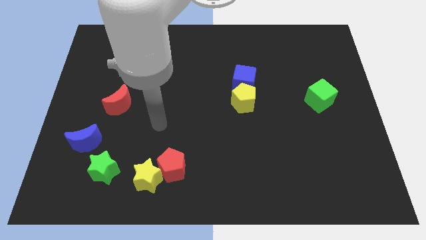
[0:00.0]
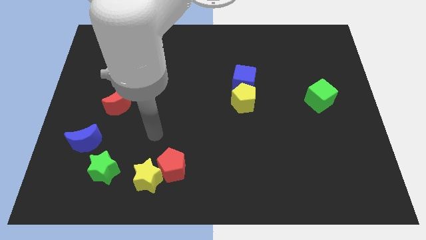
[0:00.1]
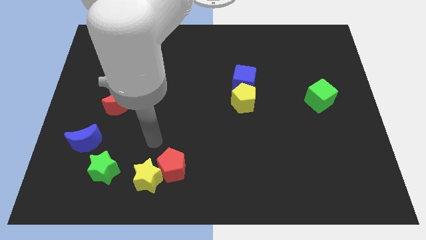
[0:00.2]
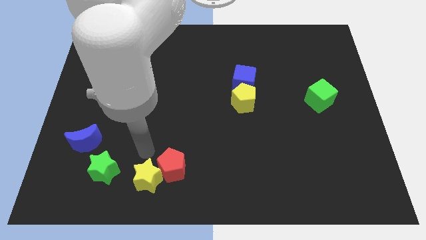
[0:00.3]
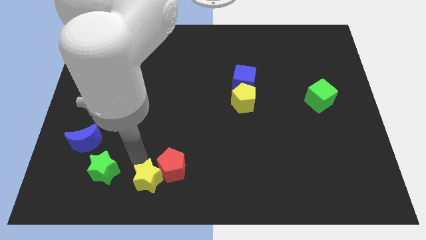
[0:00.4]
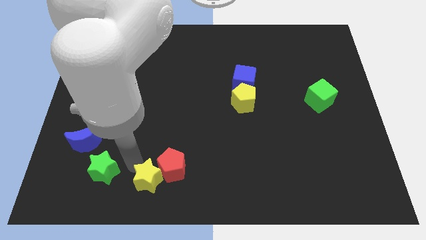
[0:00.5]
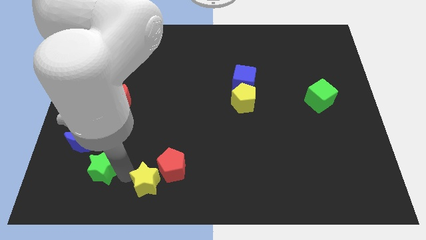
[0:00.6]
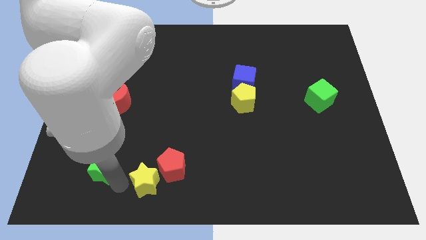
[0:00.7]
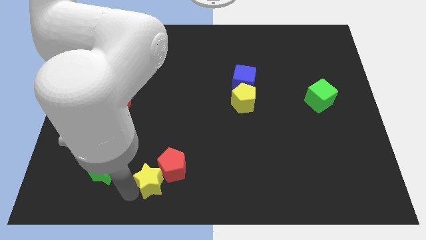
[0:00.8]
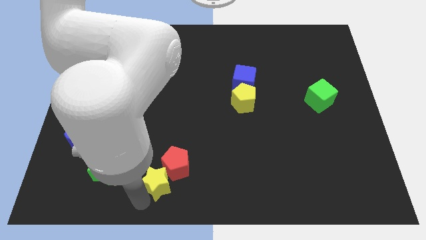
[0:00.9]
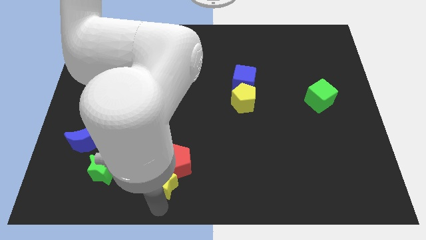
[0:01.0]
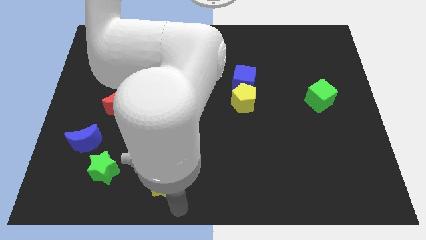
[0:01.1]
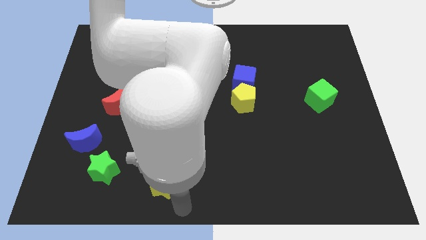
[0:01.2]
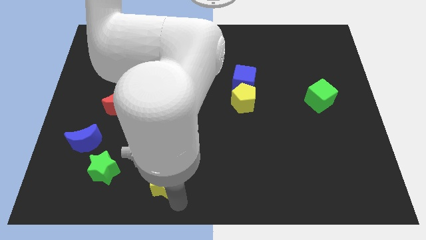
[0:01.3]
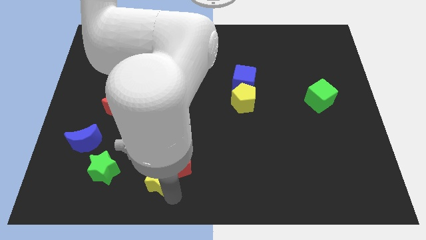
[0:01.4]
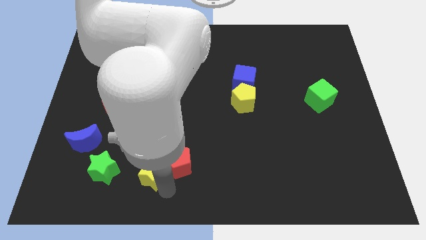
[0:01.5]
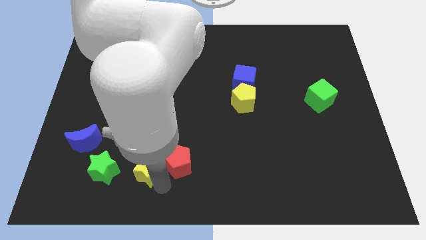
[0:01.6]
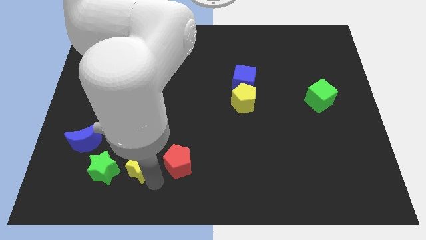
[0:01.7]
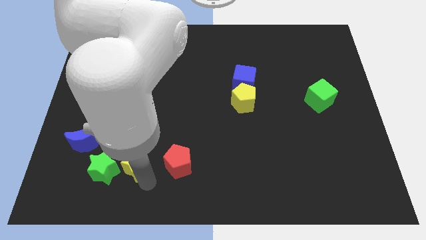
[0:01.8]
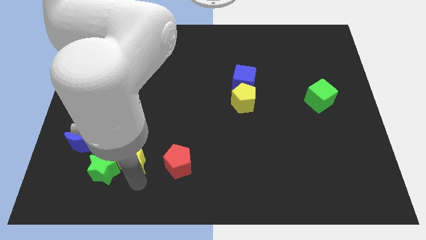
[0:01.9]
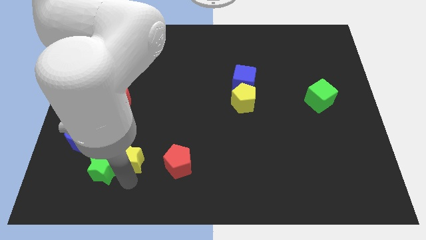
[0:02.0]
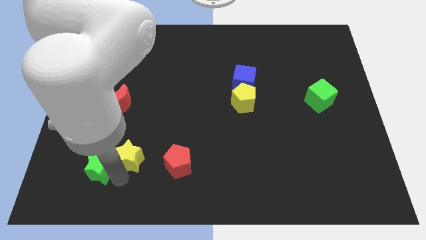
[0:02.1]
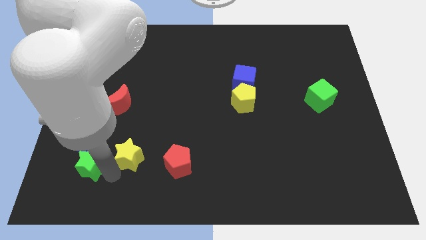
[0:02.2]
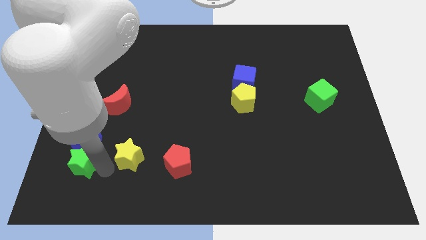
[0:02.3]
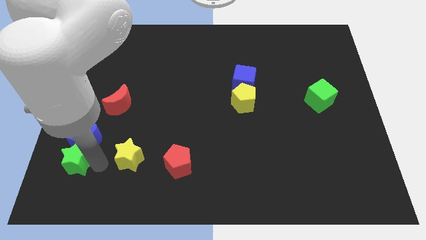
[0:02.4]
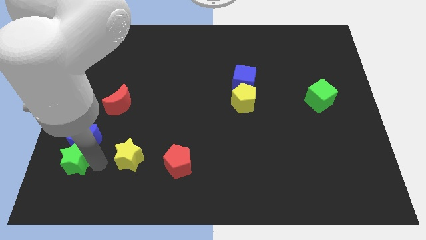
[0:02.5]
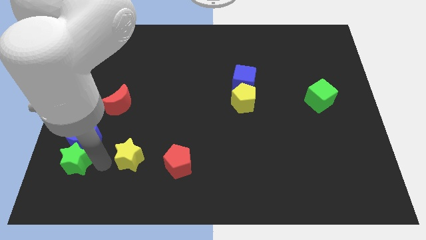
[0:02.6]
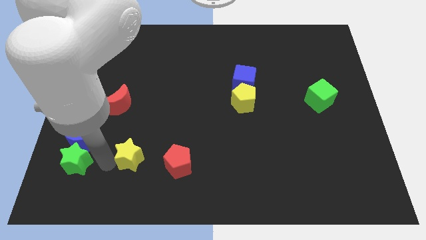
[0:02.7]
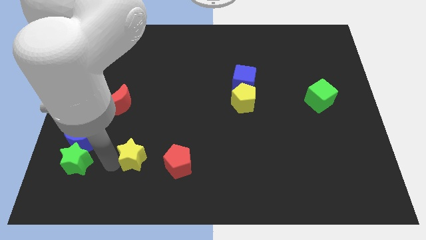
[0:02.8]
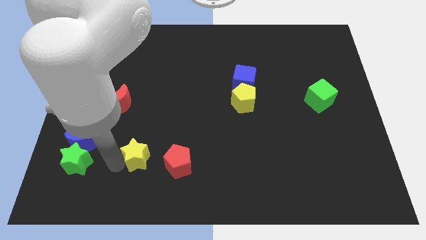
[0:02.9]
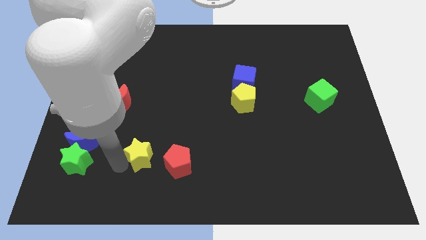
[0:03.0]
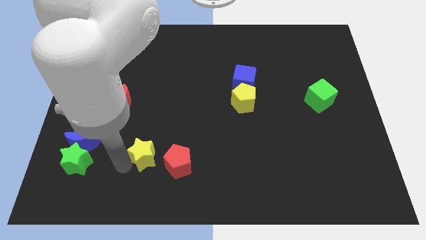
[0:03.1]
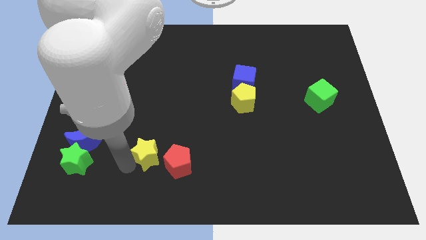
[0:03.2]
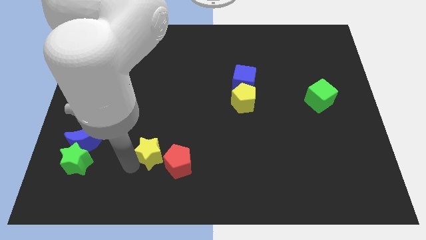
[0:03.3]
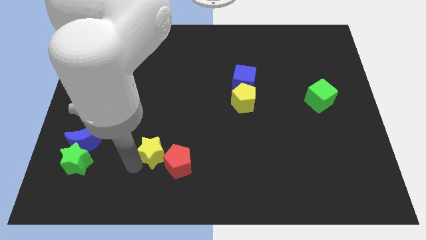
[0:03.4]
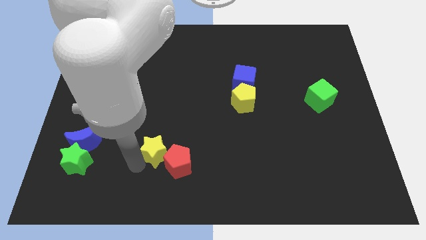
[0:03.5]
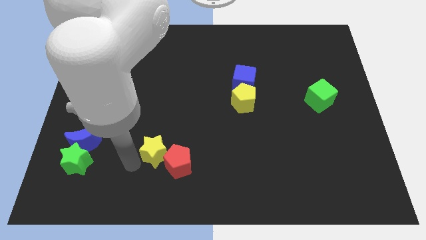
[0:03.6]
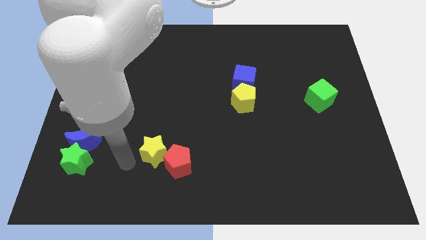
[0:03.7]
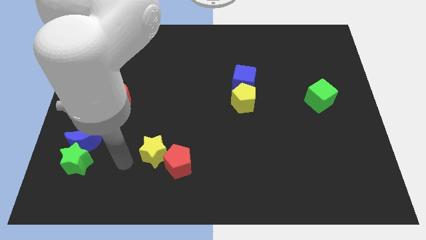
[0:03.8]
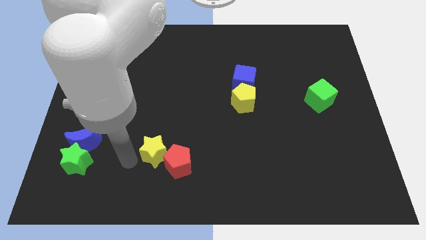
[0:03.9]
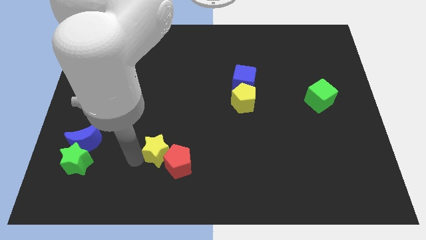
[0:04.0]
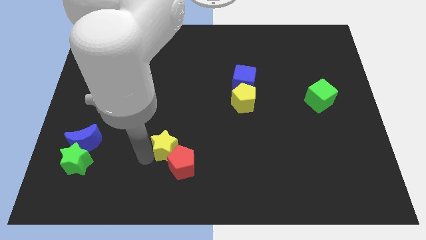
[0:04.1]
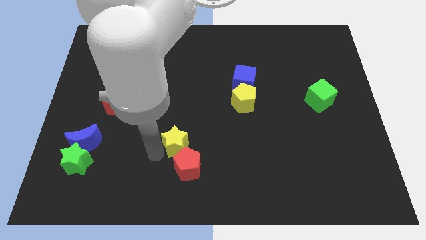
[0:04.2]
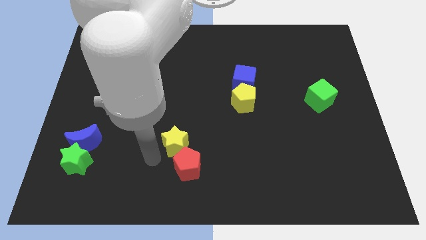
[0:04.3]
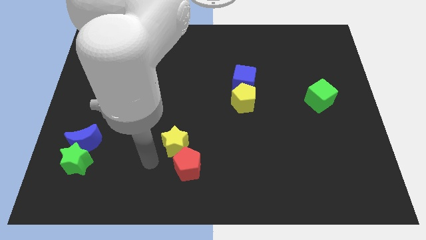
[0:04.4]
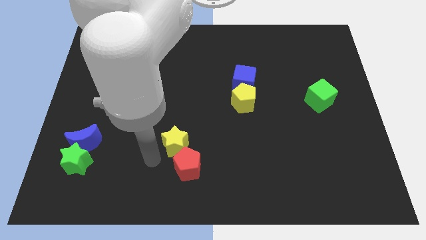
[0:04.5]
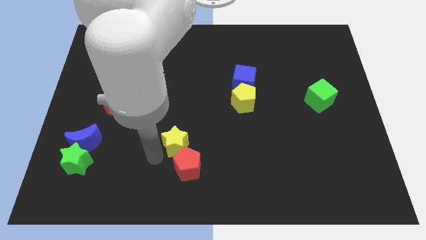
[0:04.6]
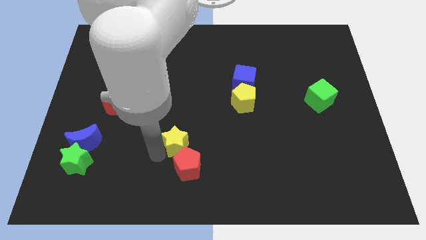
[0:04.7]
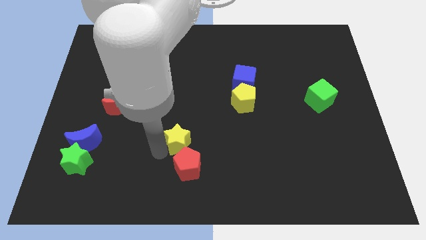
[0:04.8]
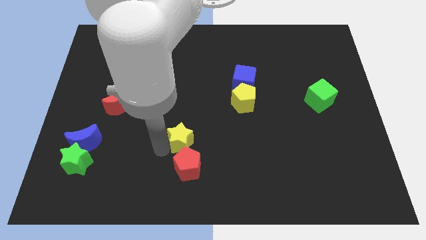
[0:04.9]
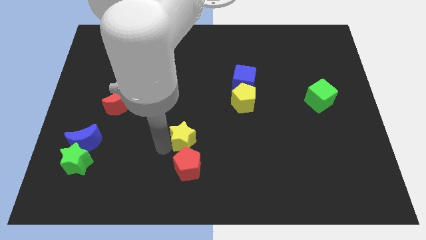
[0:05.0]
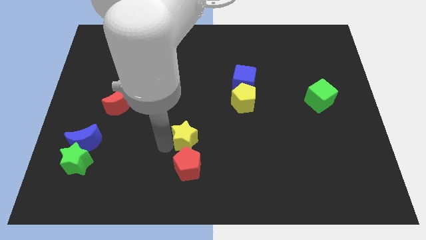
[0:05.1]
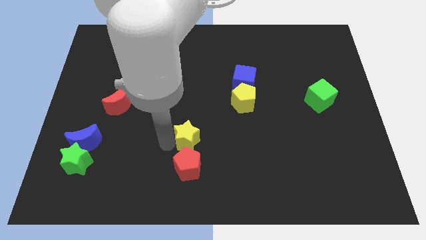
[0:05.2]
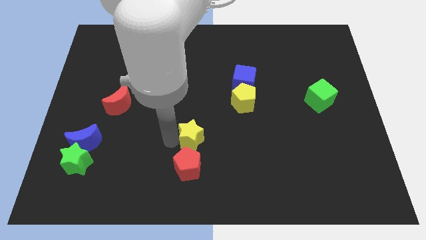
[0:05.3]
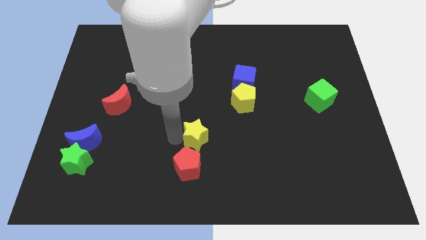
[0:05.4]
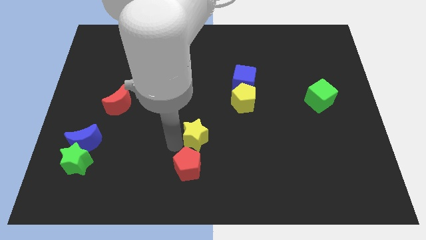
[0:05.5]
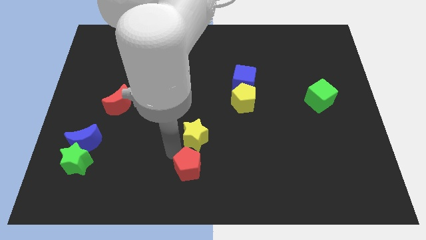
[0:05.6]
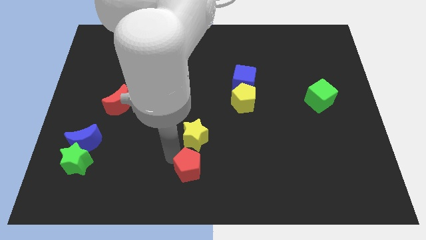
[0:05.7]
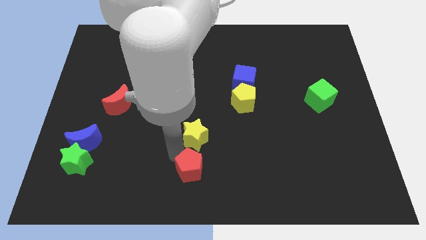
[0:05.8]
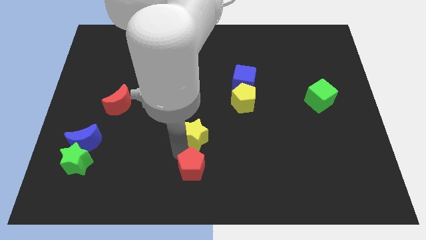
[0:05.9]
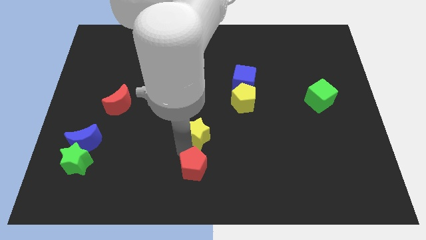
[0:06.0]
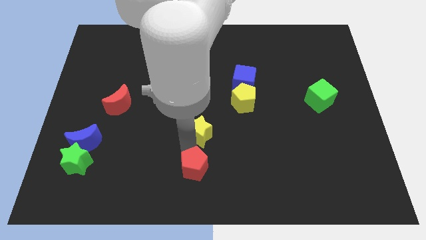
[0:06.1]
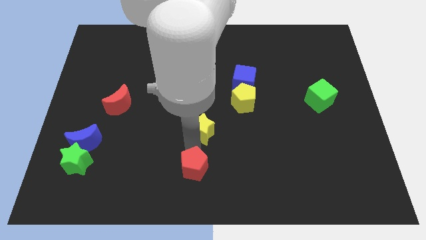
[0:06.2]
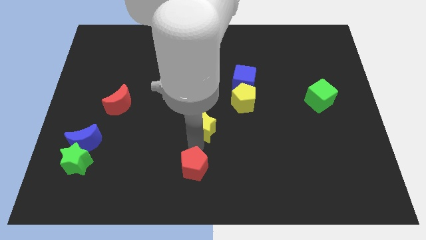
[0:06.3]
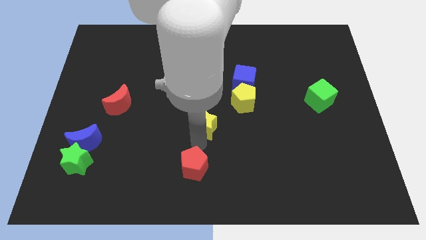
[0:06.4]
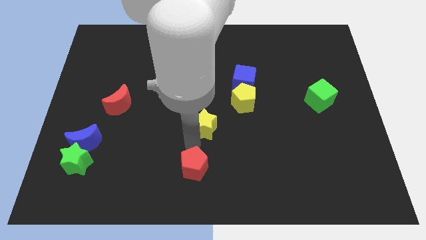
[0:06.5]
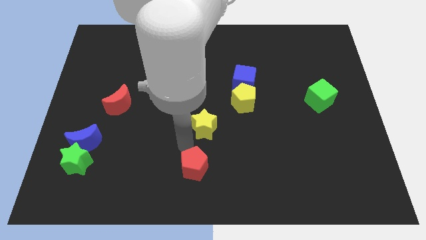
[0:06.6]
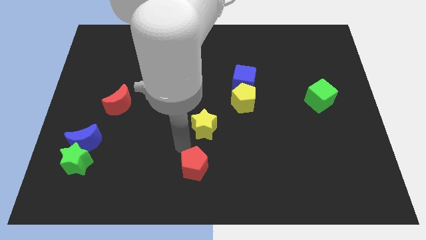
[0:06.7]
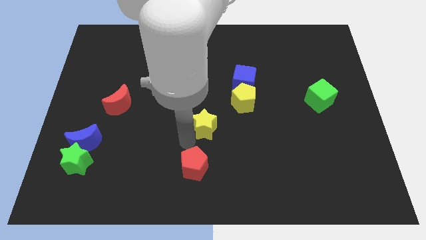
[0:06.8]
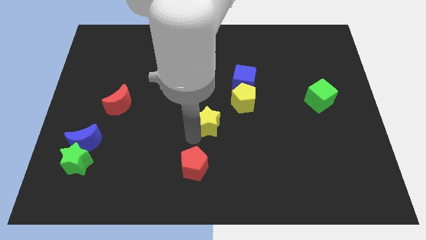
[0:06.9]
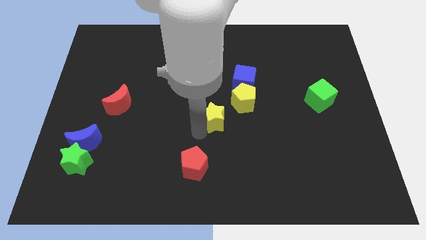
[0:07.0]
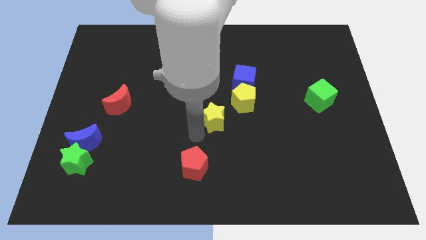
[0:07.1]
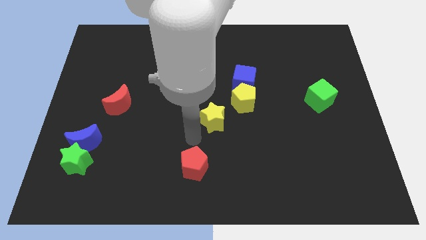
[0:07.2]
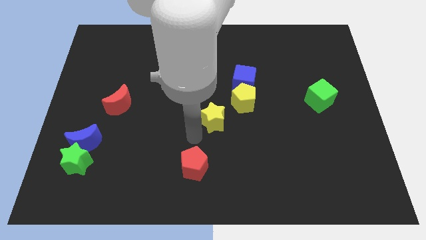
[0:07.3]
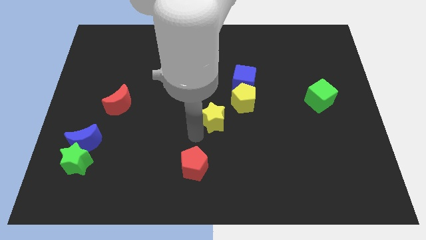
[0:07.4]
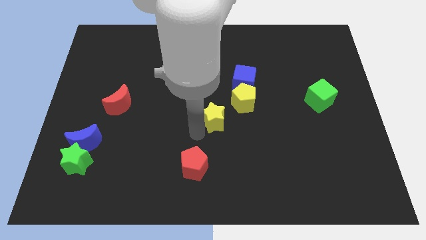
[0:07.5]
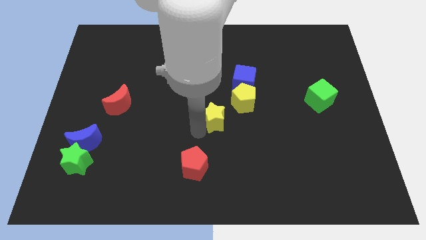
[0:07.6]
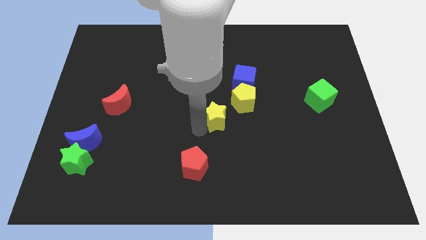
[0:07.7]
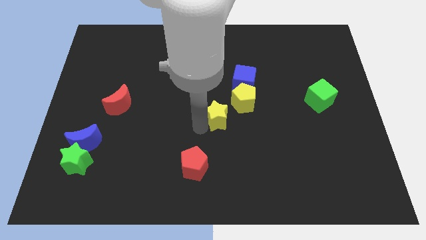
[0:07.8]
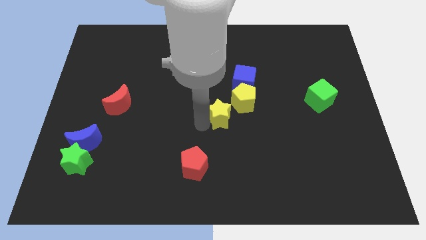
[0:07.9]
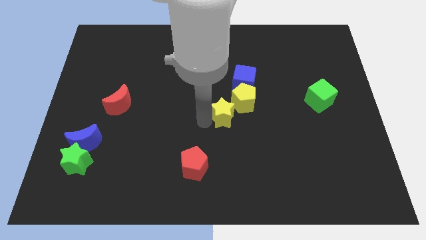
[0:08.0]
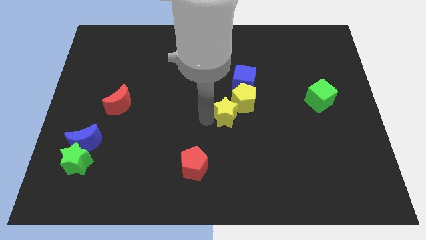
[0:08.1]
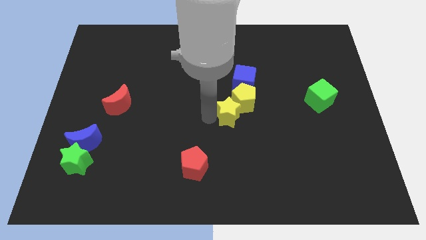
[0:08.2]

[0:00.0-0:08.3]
put the yellow star next to the yellow pentagon
